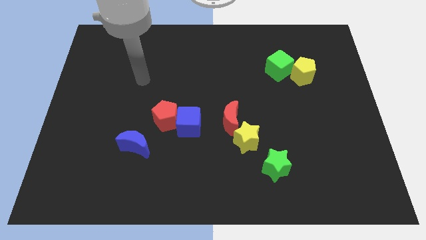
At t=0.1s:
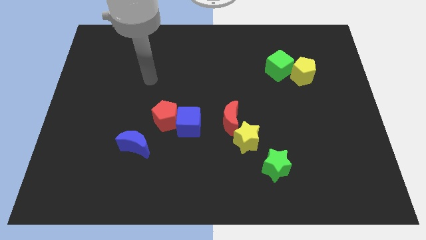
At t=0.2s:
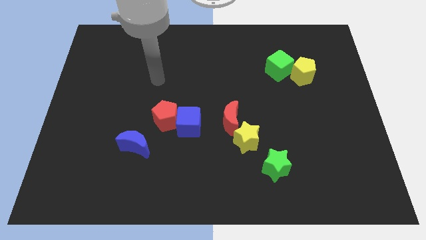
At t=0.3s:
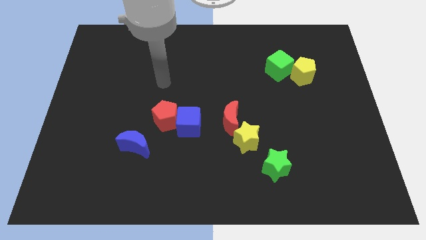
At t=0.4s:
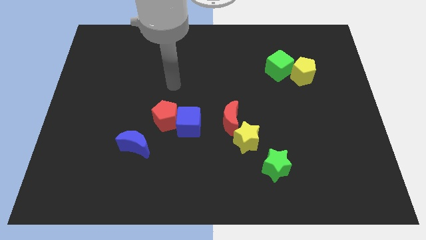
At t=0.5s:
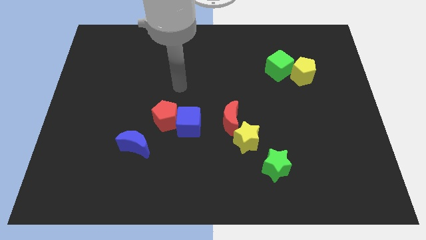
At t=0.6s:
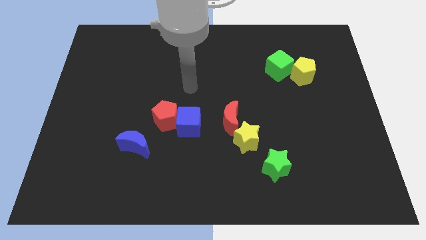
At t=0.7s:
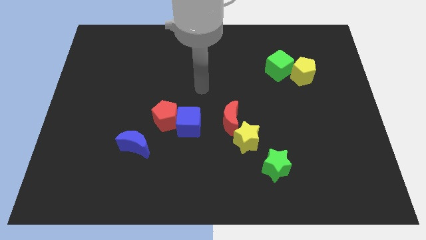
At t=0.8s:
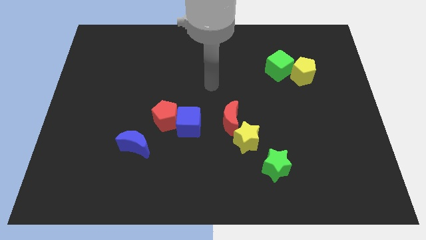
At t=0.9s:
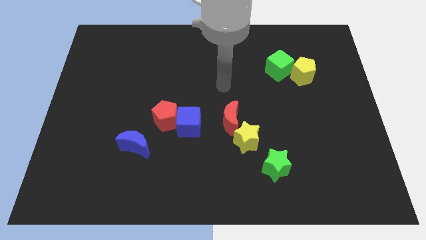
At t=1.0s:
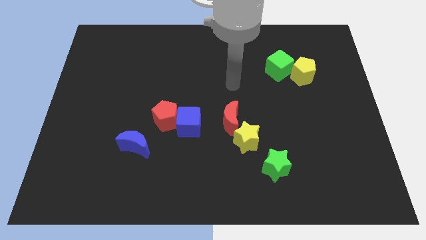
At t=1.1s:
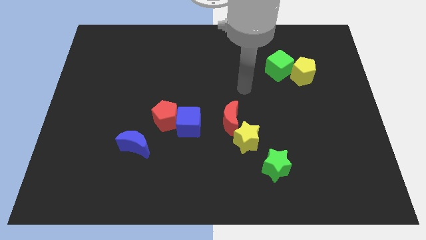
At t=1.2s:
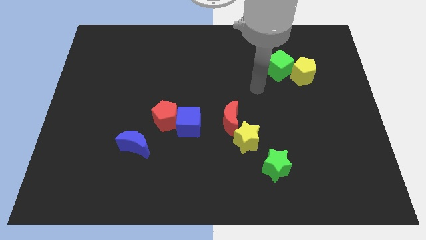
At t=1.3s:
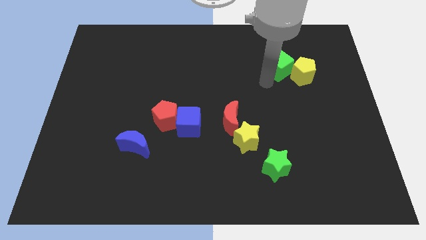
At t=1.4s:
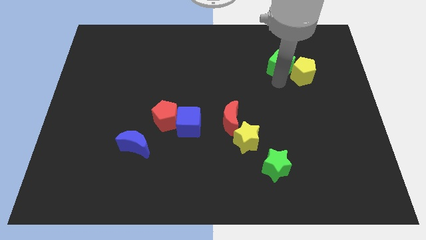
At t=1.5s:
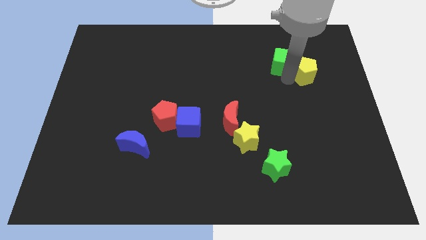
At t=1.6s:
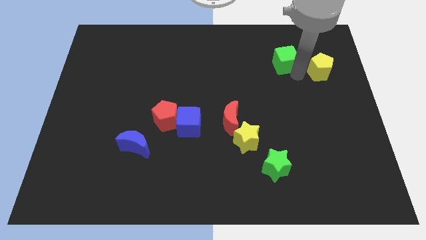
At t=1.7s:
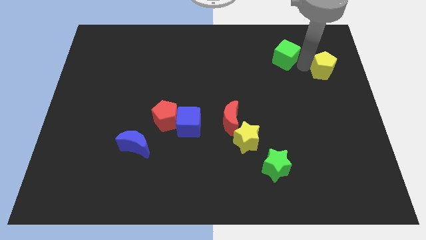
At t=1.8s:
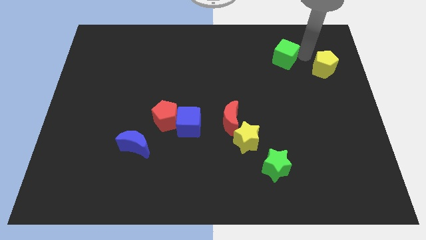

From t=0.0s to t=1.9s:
pull the green cube apart from the yellow pentagon

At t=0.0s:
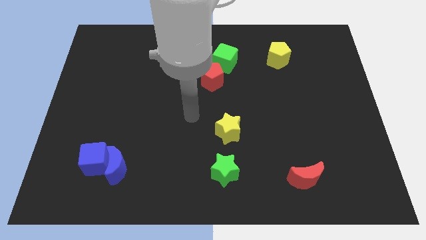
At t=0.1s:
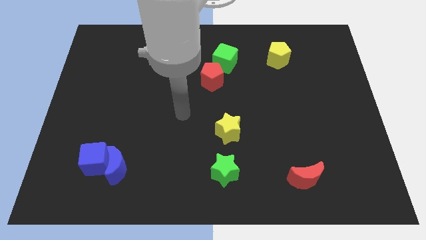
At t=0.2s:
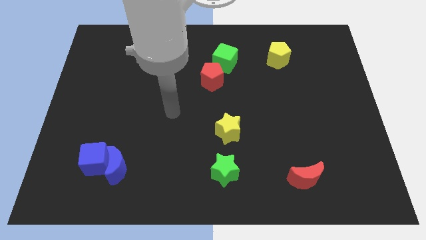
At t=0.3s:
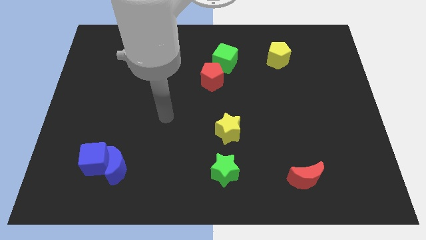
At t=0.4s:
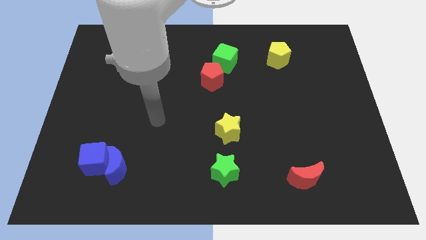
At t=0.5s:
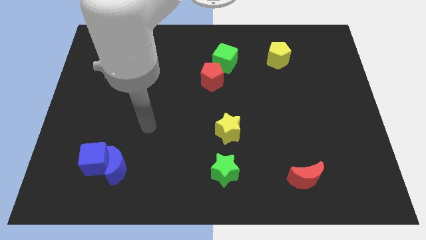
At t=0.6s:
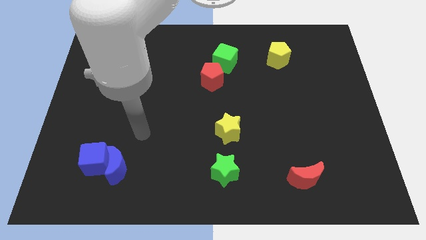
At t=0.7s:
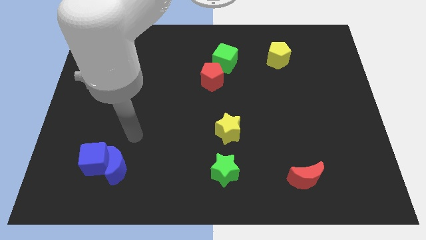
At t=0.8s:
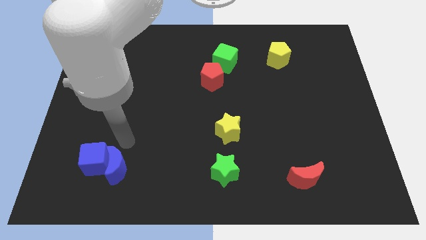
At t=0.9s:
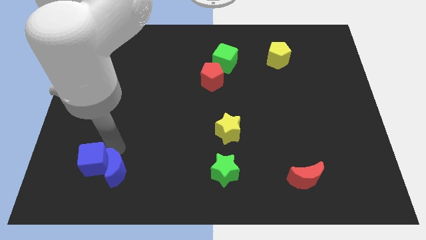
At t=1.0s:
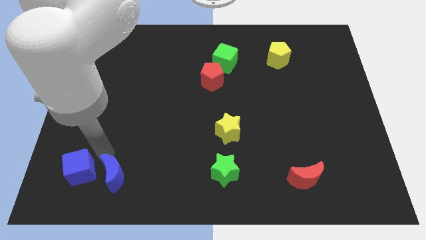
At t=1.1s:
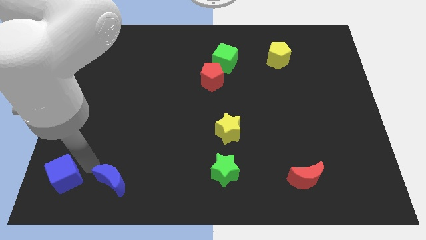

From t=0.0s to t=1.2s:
separate the blue moon from the blue cube

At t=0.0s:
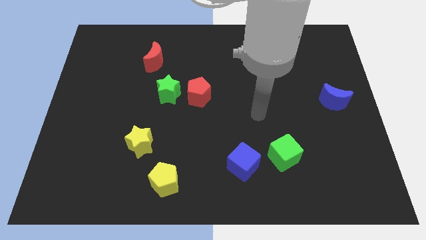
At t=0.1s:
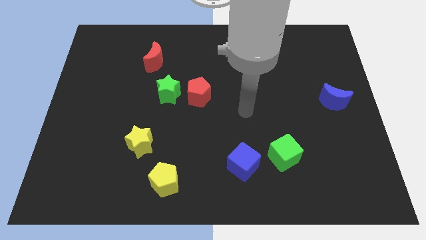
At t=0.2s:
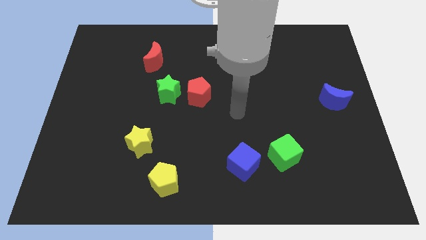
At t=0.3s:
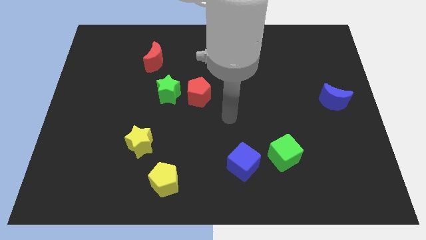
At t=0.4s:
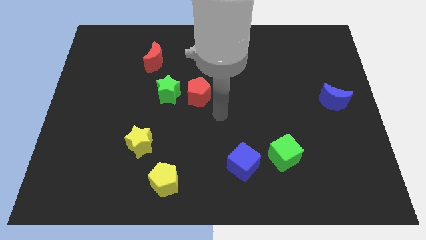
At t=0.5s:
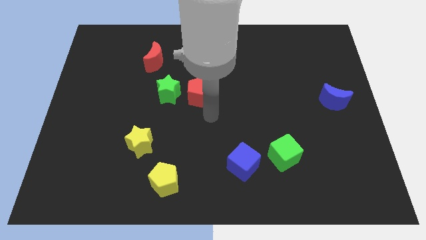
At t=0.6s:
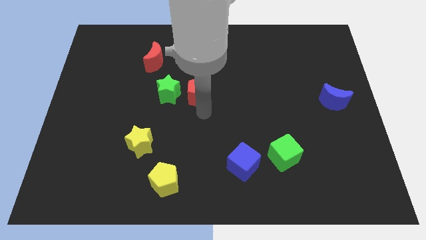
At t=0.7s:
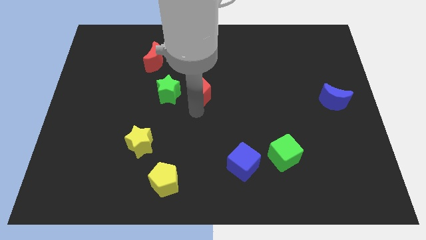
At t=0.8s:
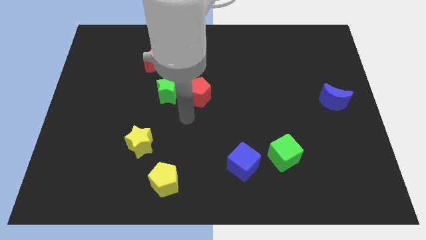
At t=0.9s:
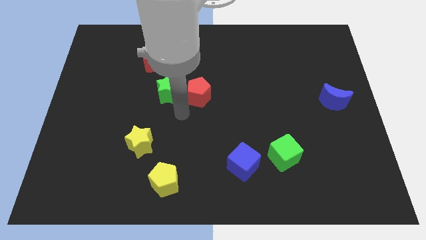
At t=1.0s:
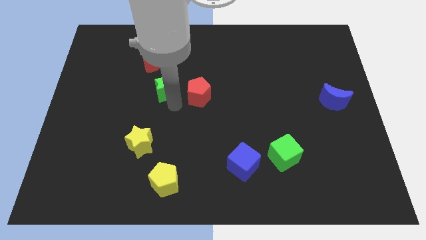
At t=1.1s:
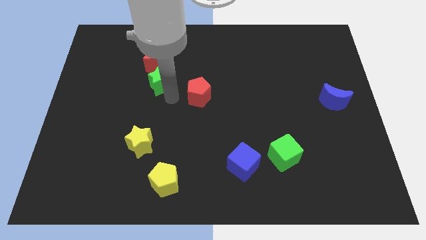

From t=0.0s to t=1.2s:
pull the red pentagon apart from the green star

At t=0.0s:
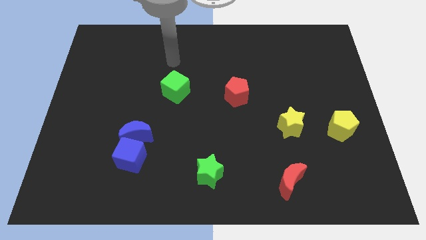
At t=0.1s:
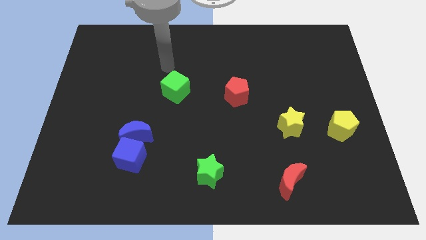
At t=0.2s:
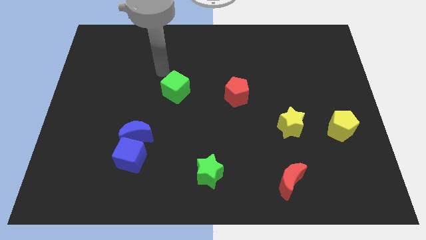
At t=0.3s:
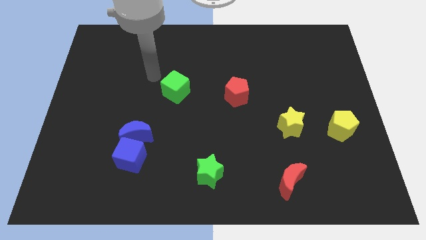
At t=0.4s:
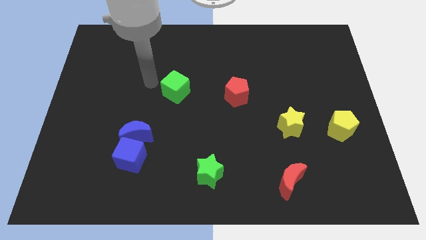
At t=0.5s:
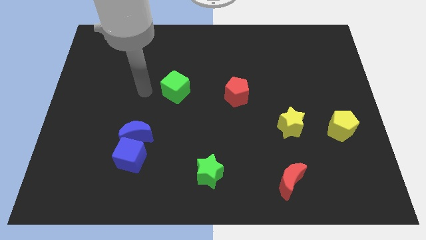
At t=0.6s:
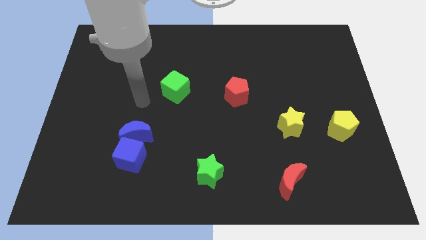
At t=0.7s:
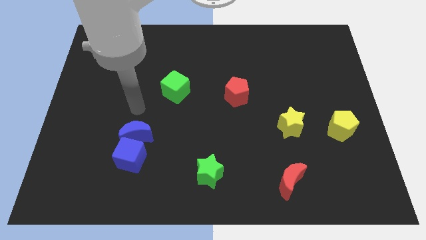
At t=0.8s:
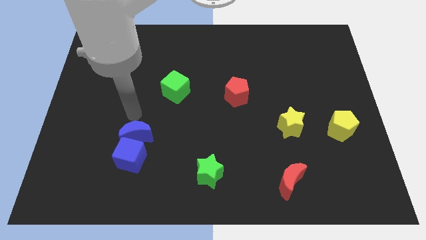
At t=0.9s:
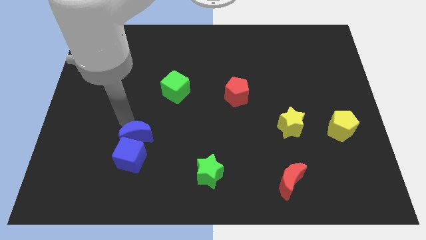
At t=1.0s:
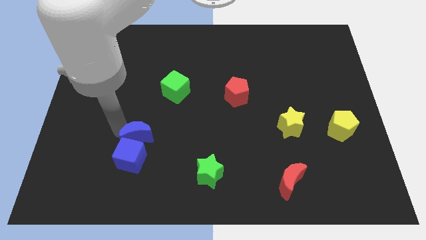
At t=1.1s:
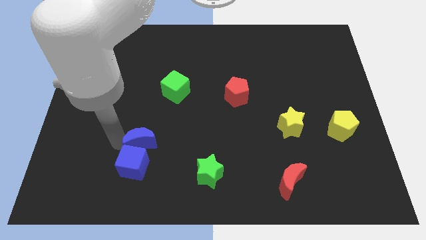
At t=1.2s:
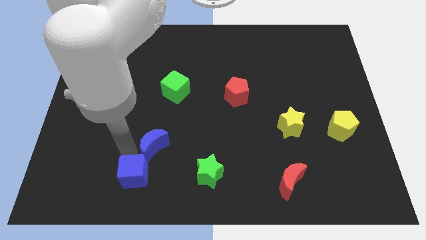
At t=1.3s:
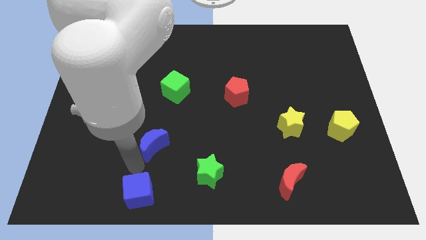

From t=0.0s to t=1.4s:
pull the blue moon apart from the blue cube

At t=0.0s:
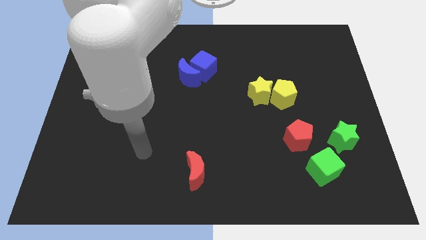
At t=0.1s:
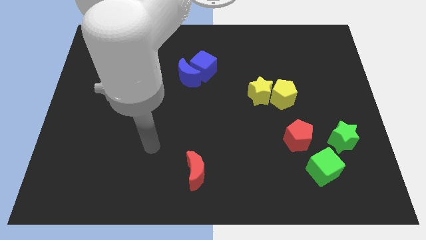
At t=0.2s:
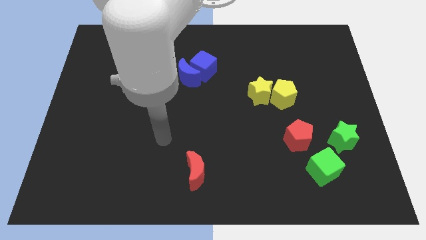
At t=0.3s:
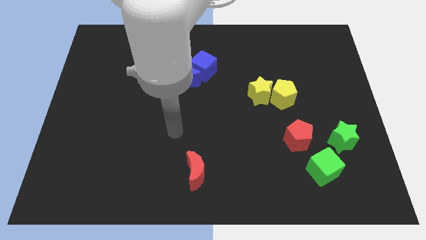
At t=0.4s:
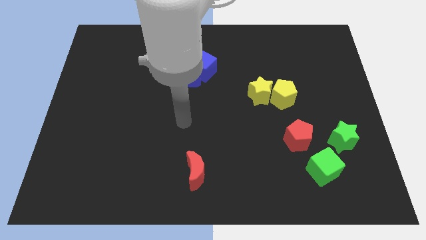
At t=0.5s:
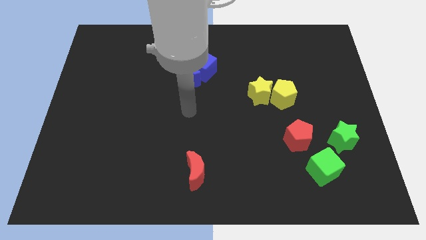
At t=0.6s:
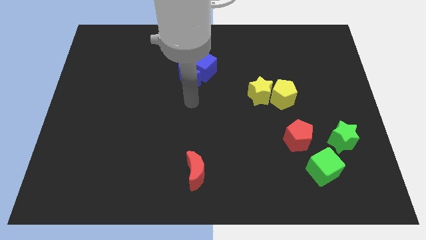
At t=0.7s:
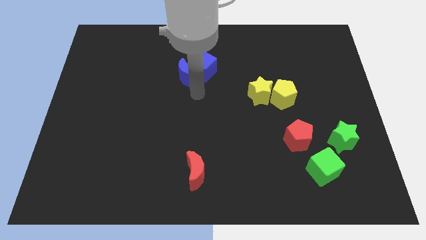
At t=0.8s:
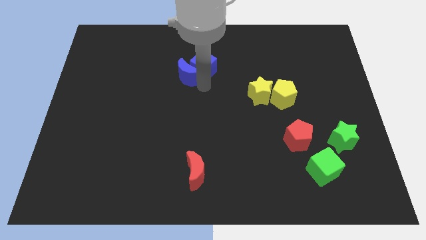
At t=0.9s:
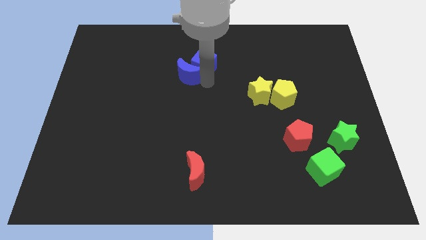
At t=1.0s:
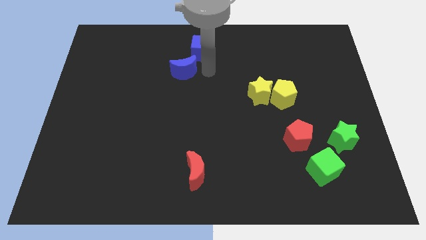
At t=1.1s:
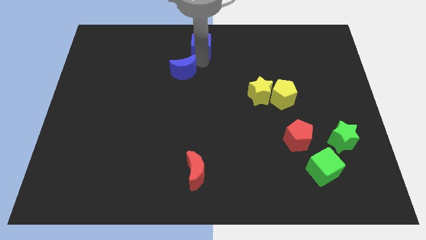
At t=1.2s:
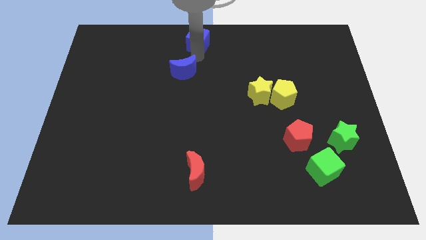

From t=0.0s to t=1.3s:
move the blue moon away from the blue cube

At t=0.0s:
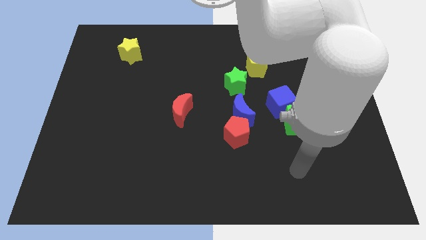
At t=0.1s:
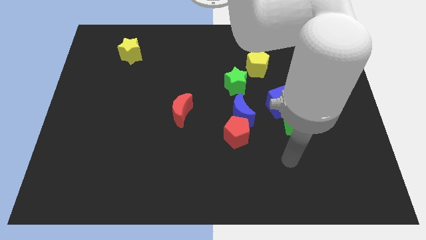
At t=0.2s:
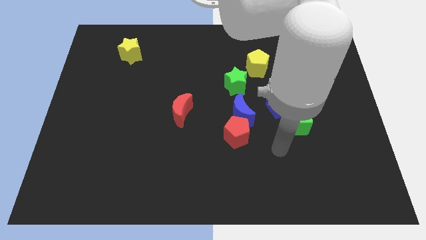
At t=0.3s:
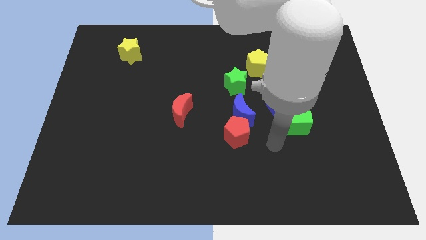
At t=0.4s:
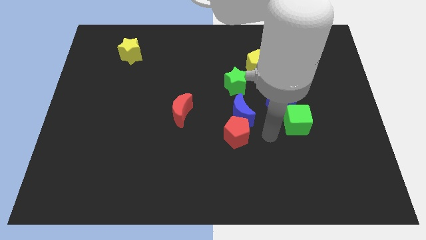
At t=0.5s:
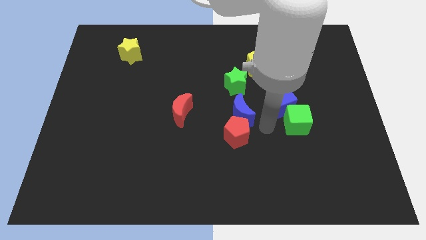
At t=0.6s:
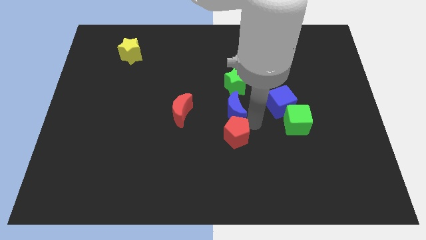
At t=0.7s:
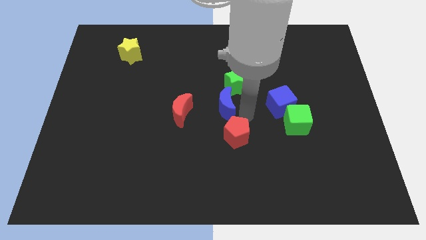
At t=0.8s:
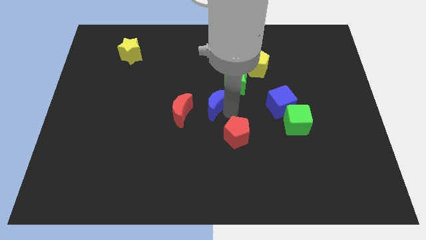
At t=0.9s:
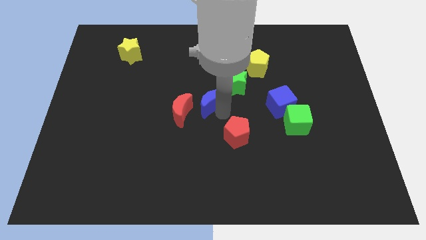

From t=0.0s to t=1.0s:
separate the red pentagon from the blue moon

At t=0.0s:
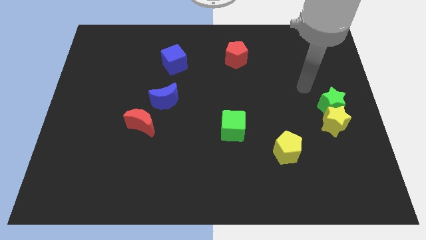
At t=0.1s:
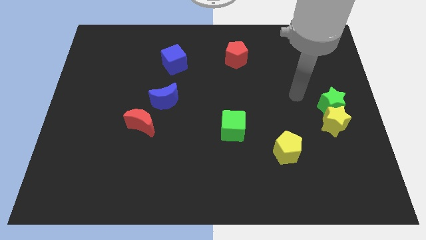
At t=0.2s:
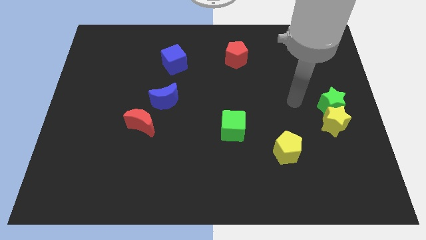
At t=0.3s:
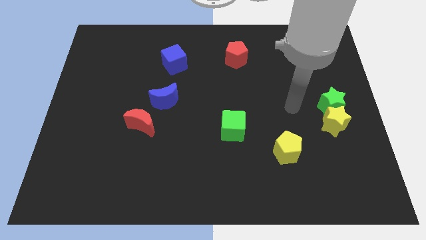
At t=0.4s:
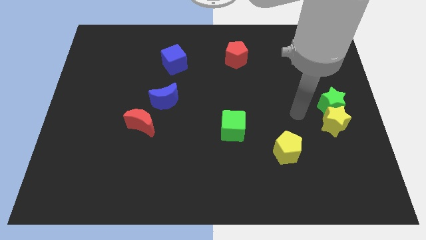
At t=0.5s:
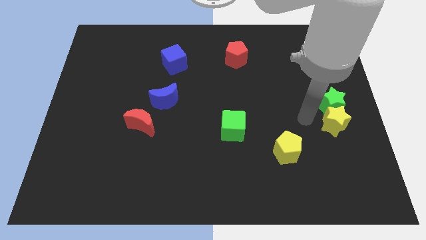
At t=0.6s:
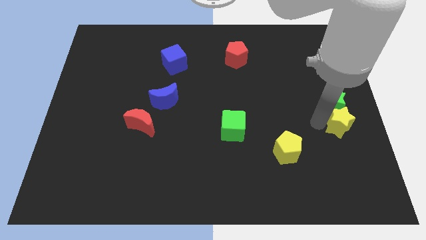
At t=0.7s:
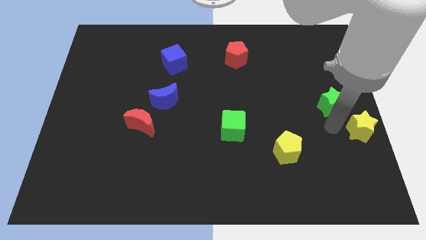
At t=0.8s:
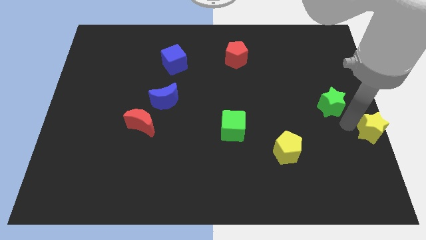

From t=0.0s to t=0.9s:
separate the green star from the yellow star

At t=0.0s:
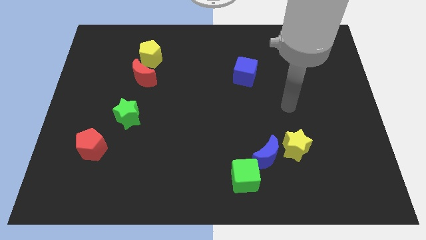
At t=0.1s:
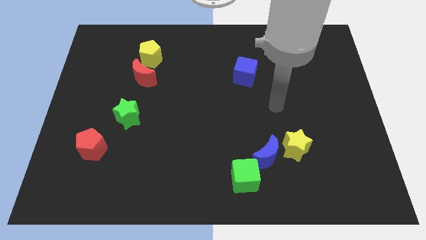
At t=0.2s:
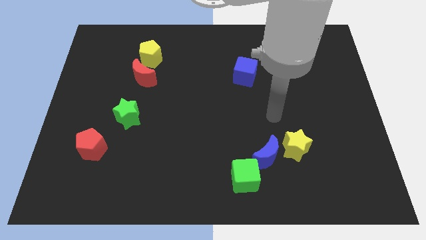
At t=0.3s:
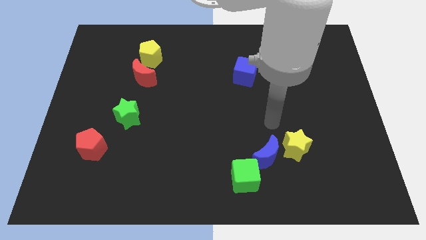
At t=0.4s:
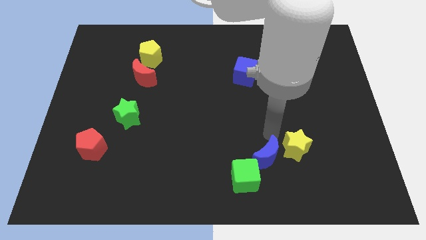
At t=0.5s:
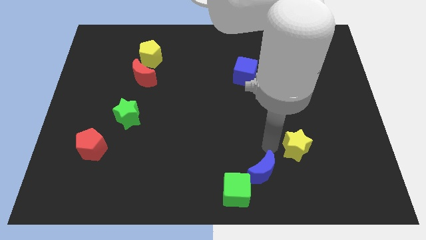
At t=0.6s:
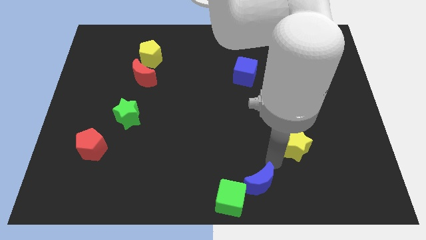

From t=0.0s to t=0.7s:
pull the yellow star apart from the blue moon
